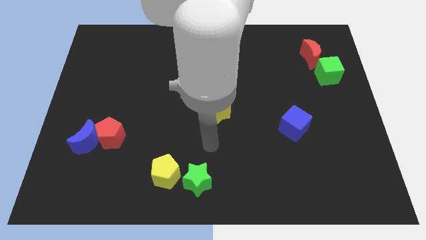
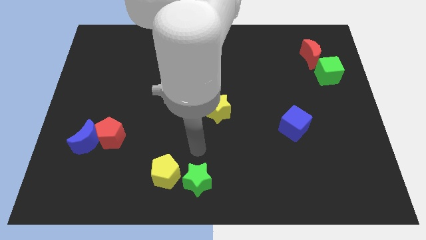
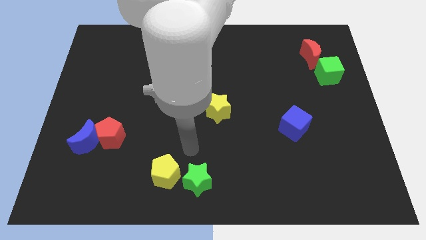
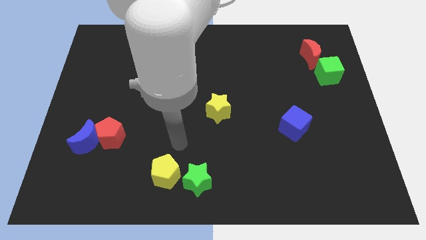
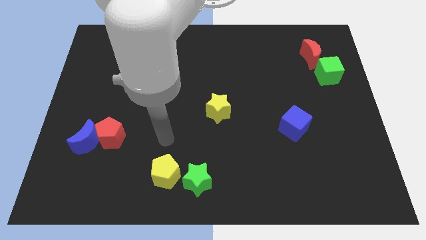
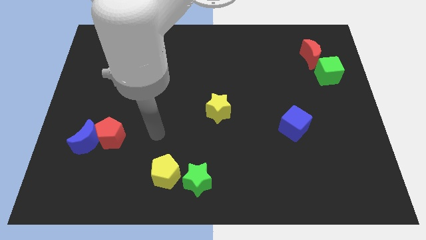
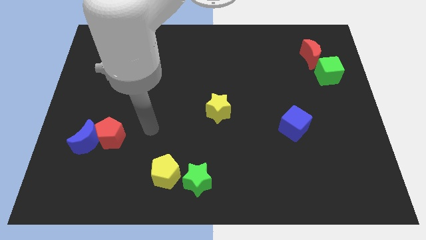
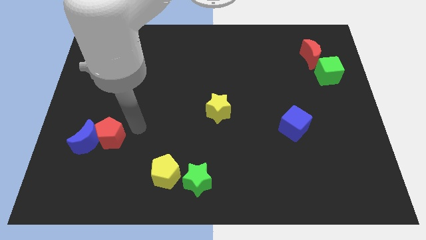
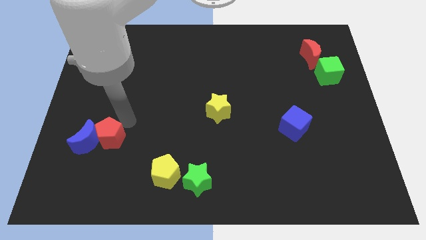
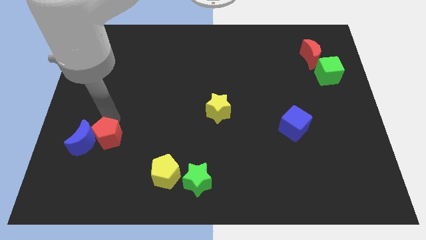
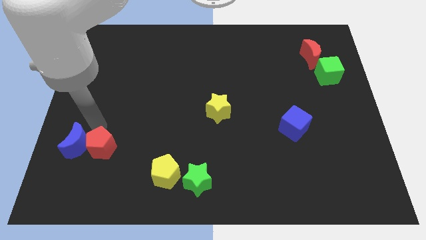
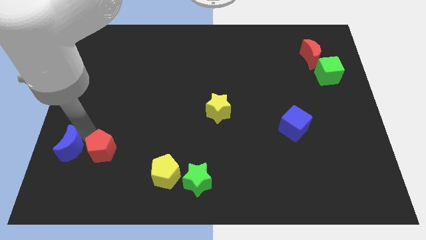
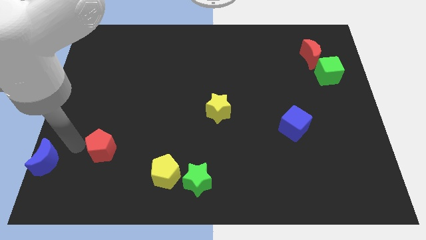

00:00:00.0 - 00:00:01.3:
move the red pentagon away from the blue moon

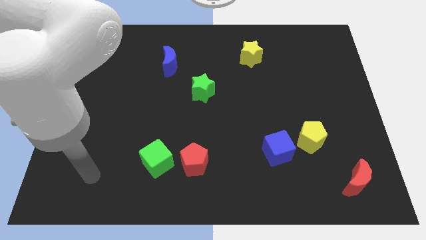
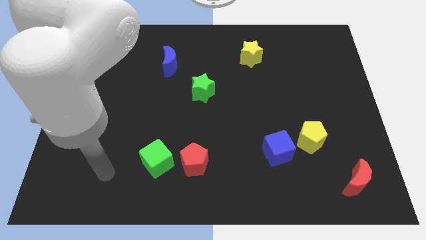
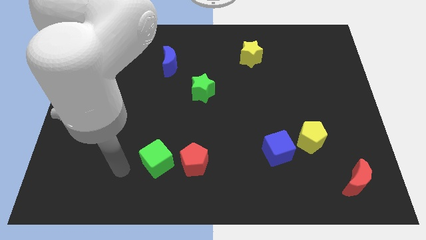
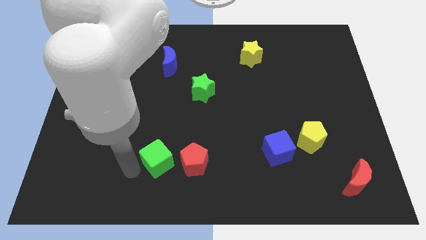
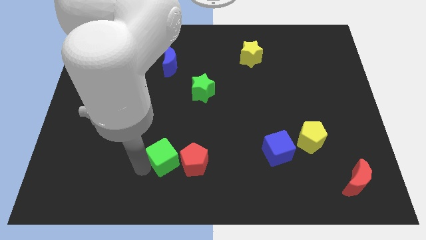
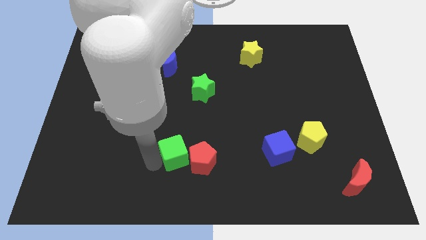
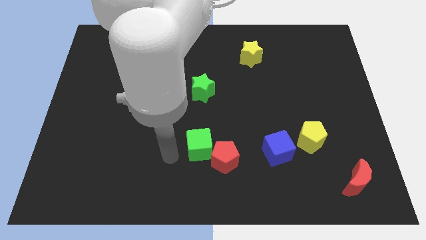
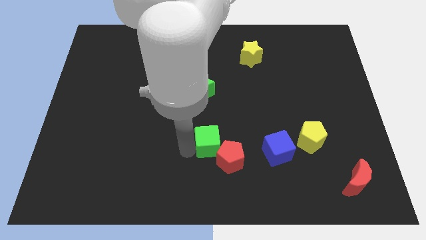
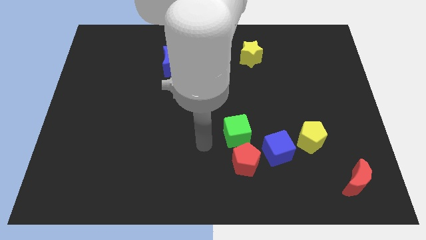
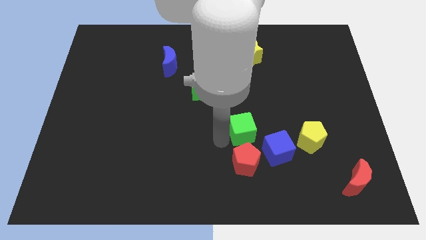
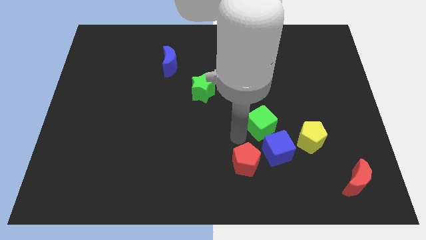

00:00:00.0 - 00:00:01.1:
move the red pentagon away from the green cube

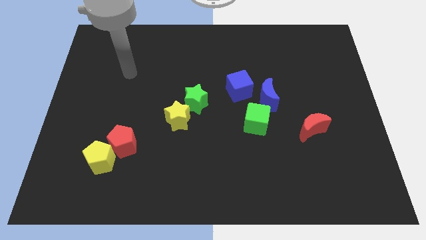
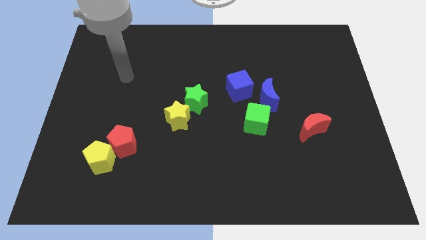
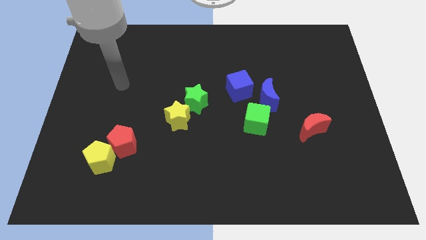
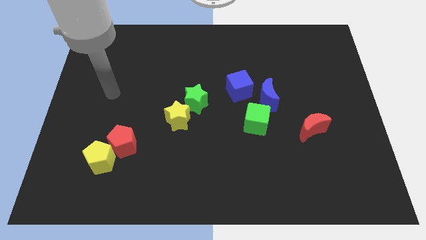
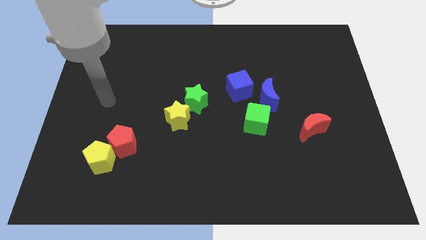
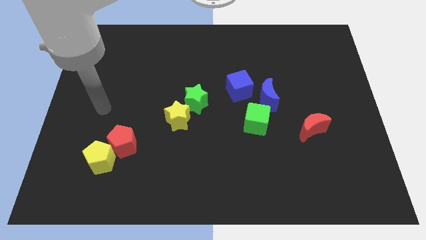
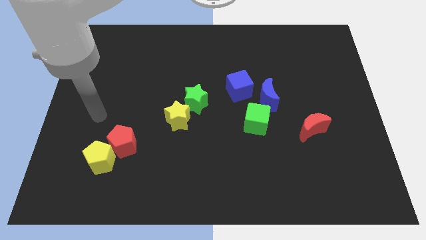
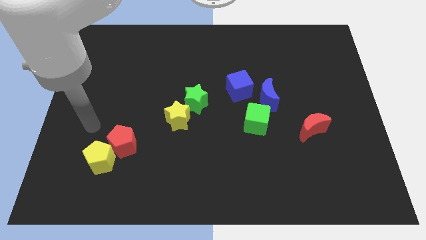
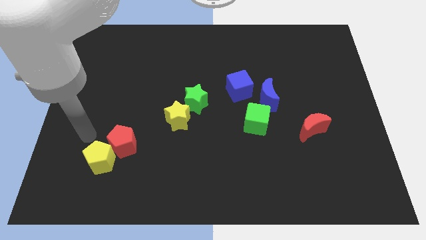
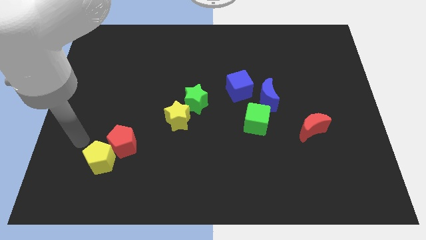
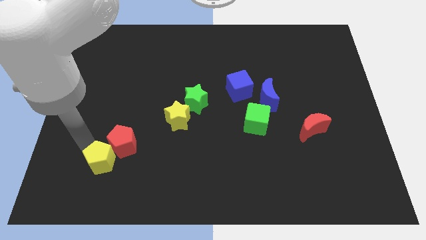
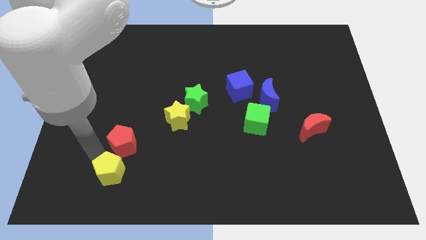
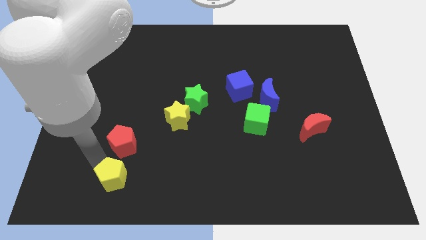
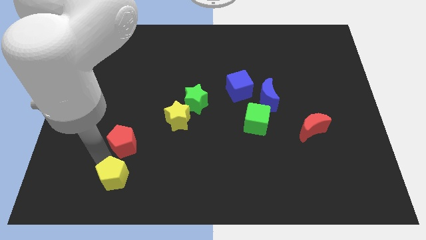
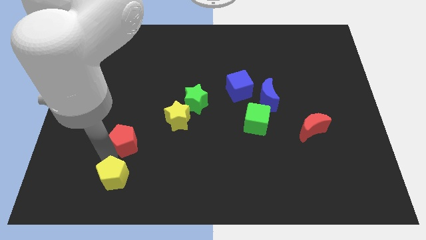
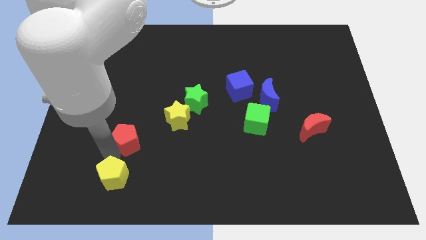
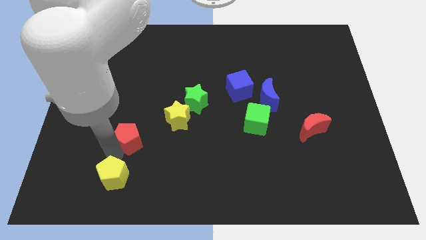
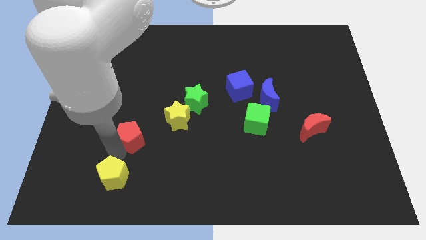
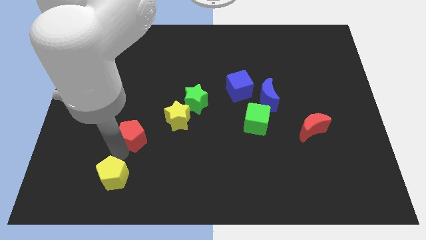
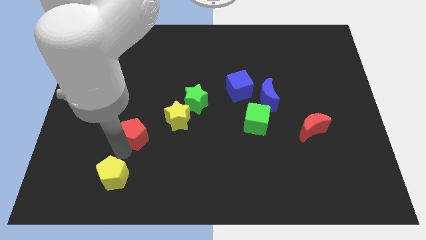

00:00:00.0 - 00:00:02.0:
separate the red pentagon from the yellow pentagon

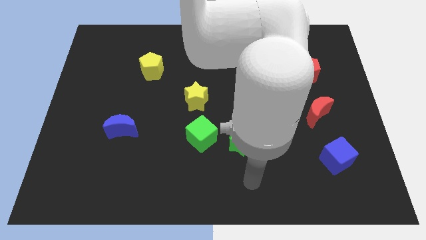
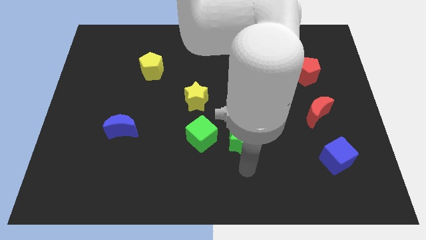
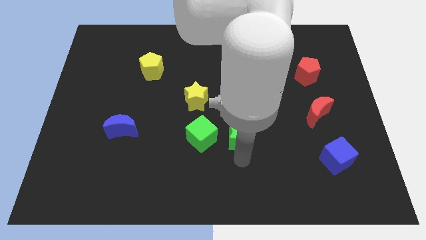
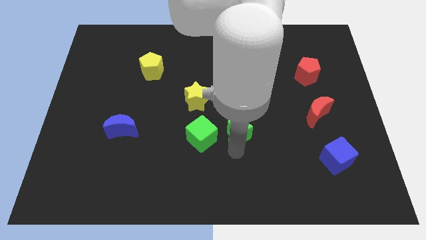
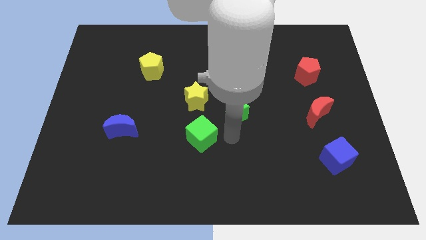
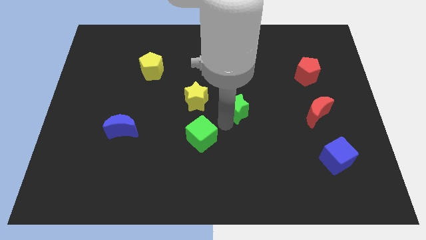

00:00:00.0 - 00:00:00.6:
separate the green cube from the green star

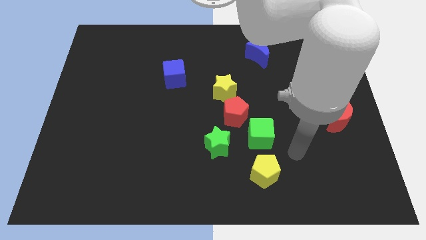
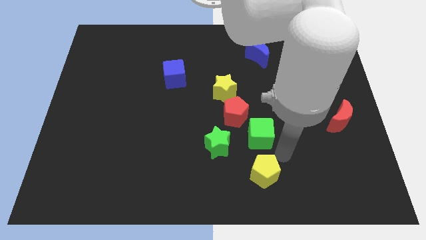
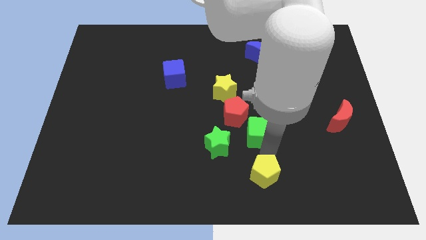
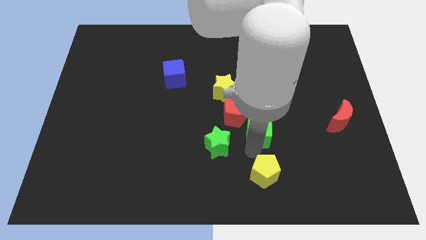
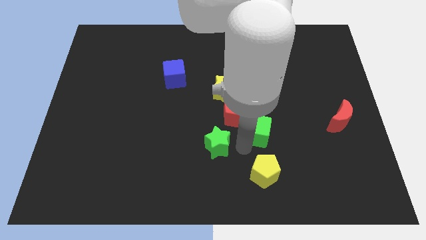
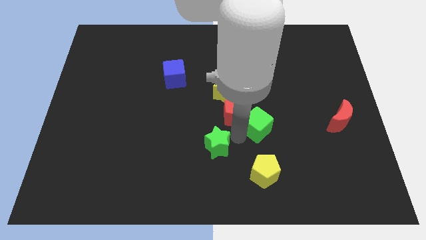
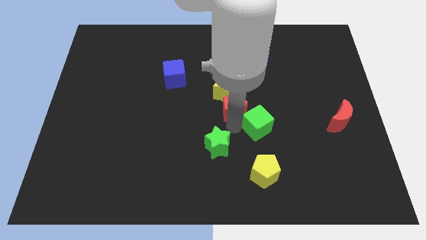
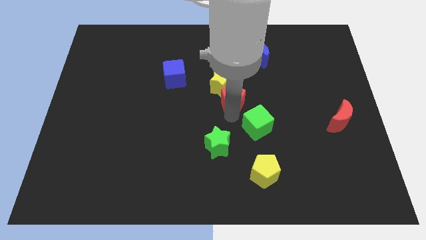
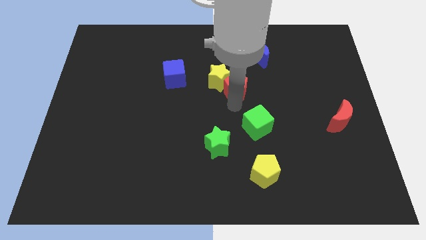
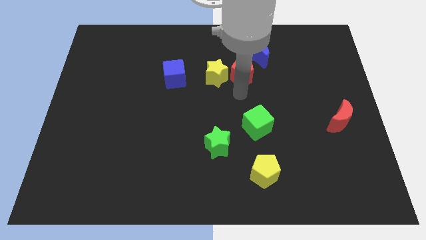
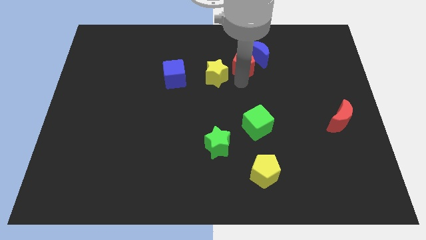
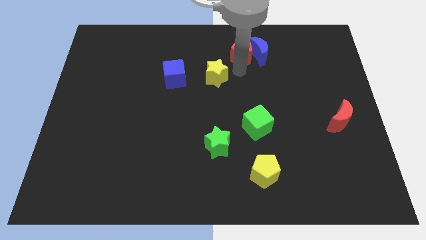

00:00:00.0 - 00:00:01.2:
separate the yellow star from the red pentagon

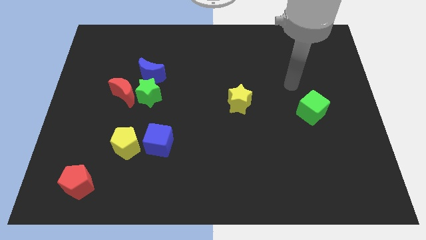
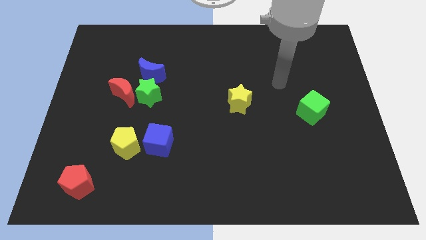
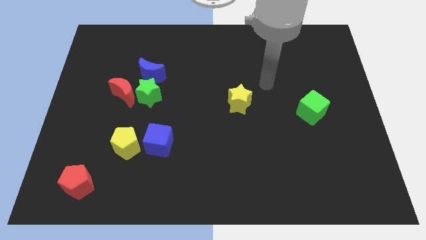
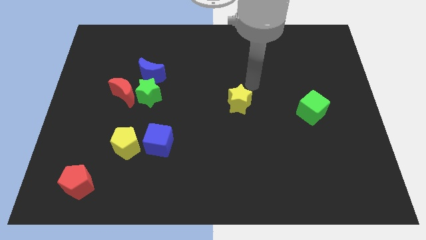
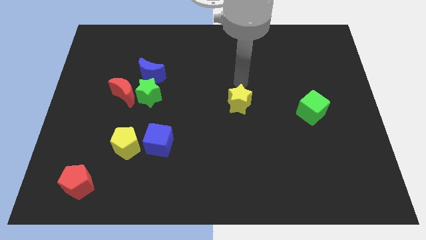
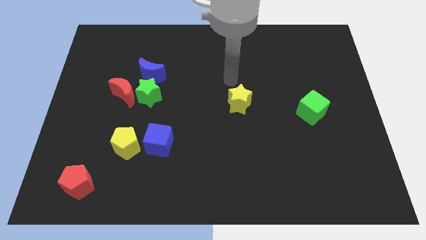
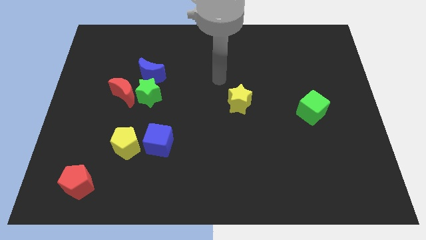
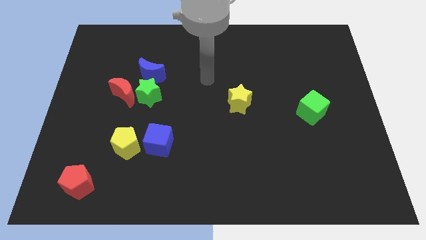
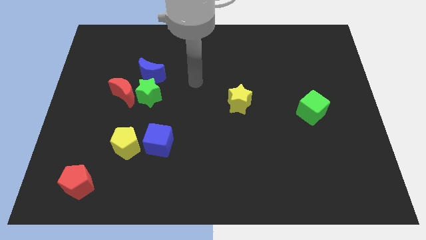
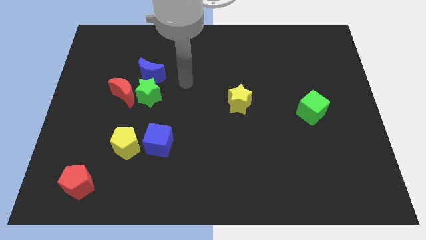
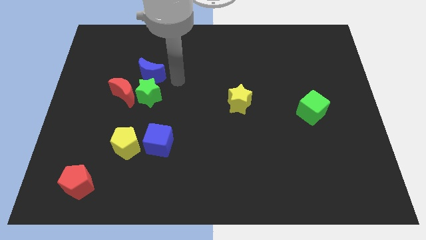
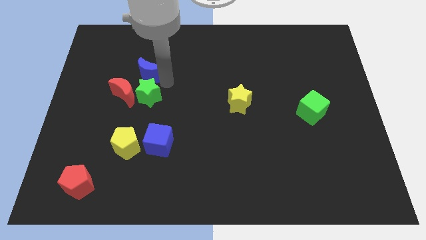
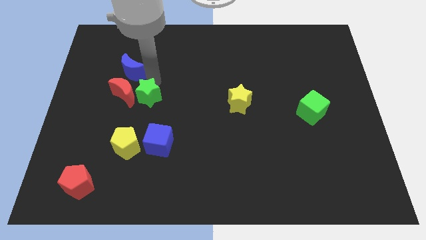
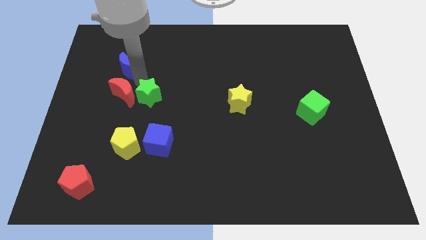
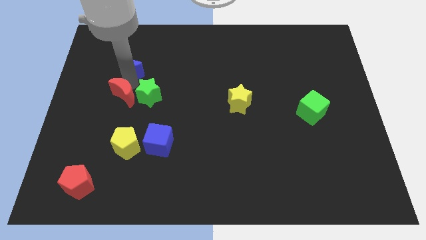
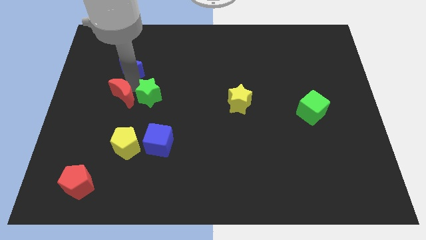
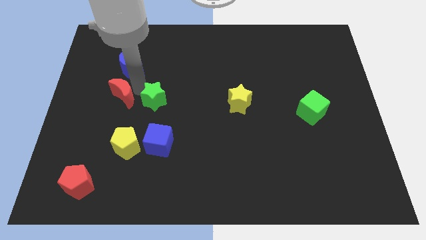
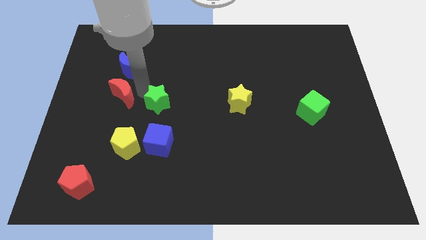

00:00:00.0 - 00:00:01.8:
pull the green star apart from the red moon and blue moon

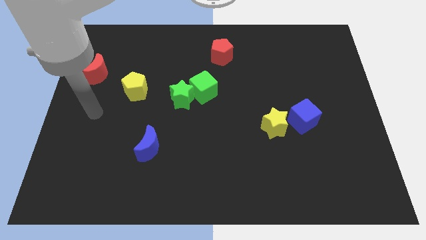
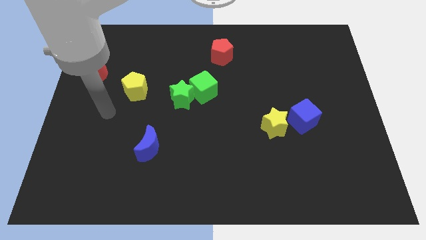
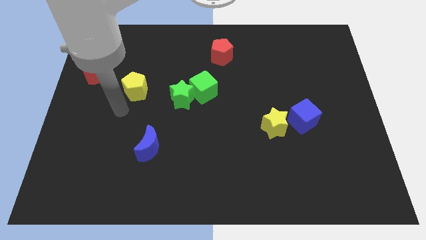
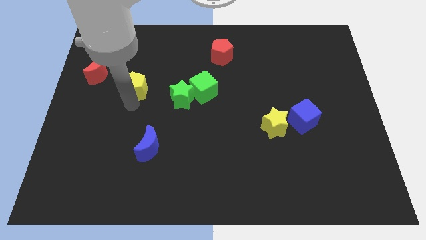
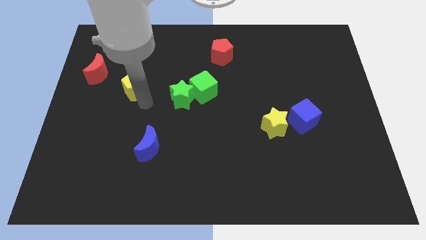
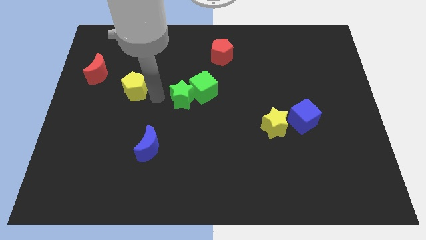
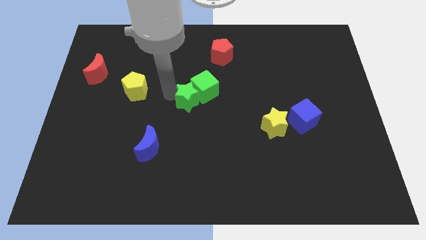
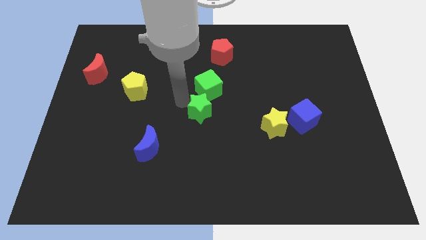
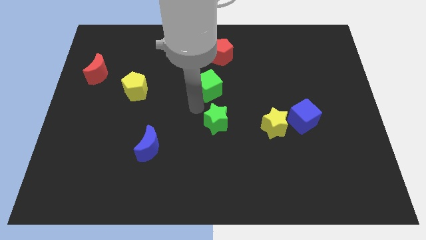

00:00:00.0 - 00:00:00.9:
move the green cube away from the green star

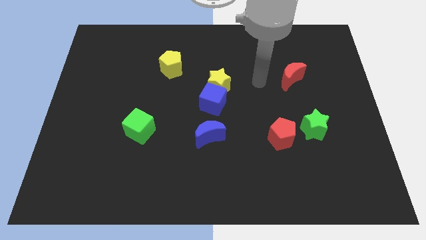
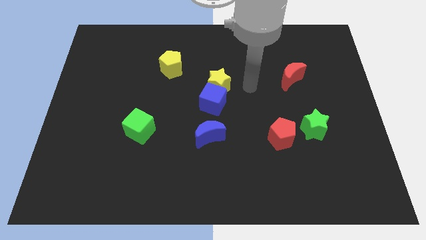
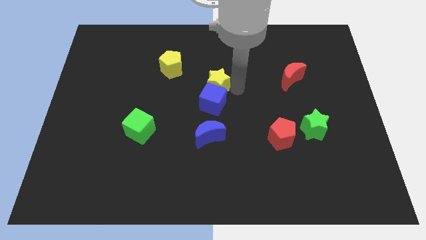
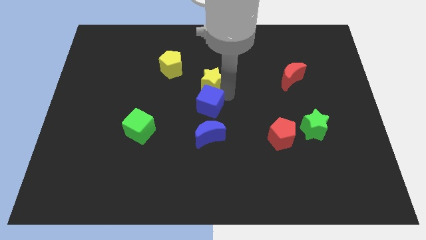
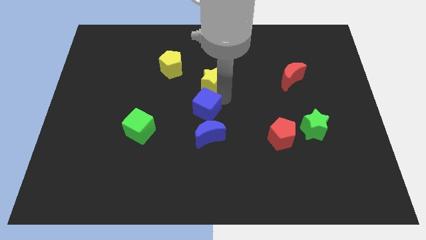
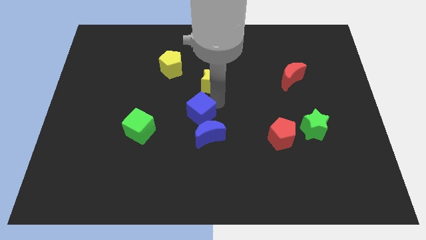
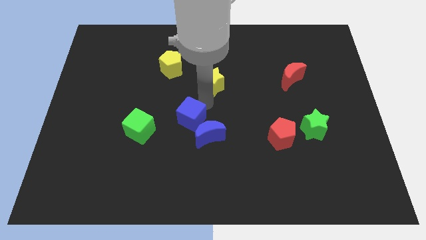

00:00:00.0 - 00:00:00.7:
pull the yellow star apart from the blue cube
